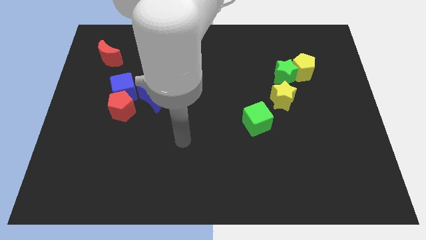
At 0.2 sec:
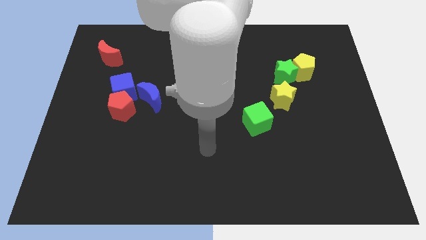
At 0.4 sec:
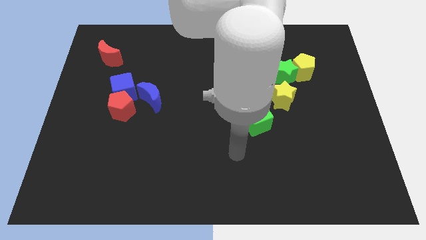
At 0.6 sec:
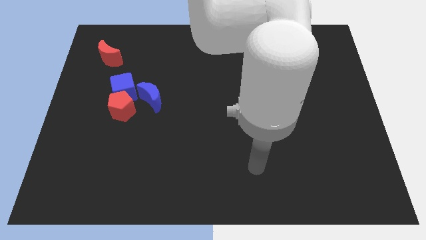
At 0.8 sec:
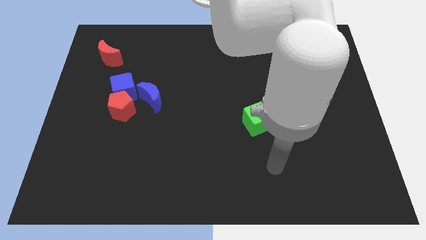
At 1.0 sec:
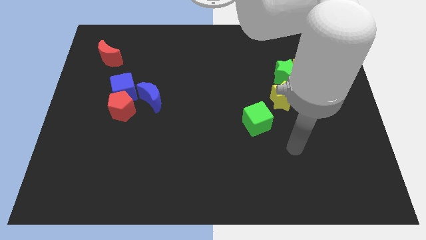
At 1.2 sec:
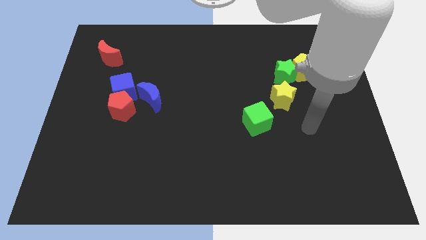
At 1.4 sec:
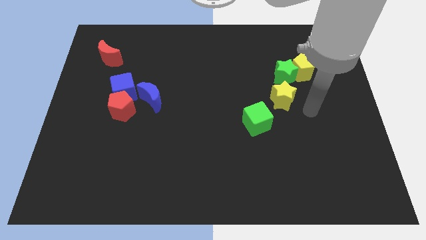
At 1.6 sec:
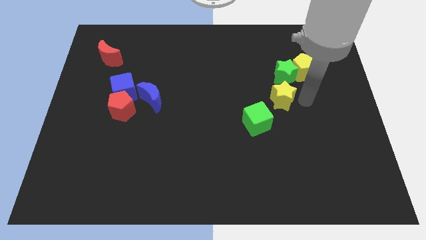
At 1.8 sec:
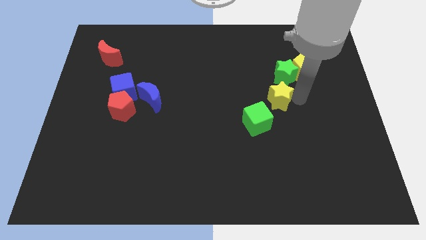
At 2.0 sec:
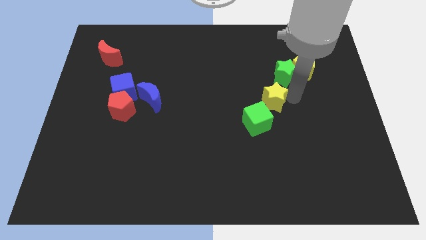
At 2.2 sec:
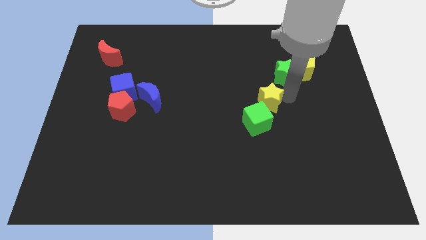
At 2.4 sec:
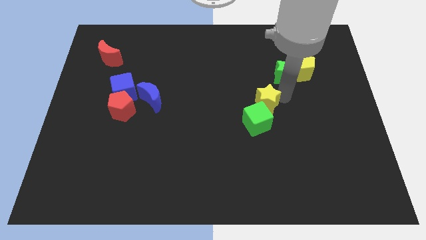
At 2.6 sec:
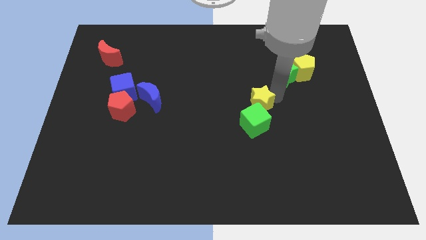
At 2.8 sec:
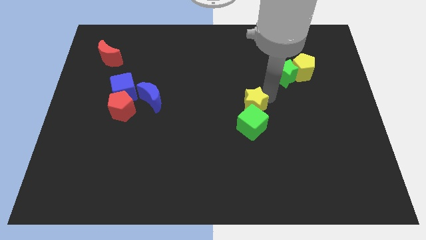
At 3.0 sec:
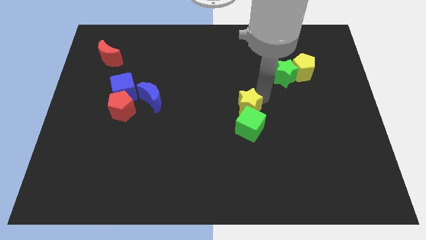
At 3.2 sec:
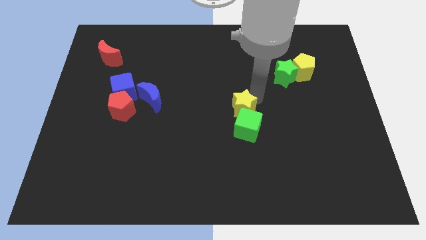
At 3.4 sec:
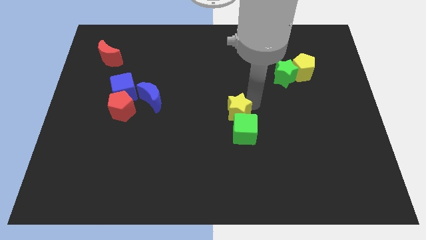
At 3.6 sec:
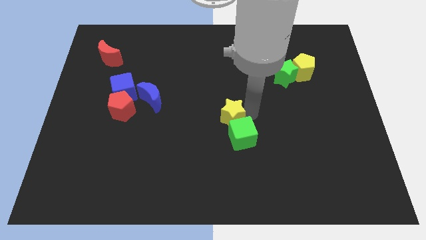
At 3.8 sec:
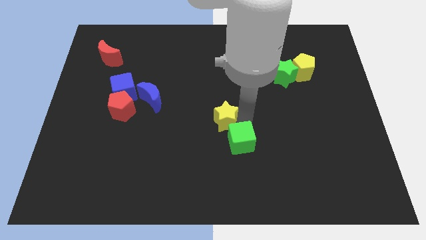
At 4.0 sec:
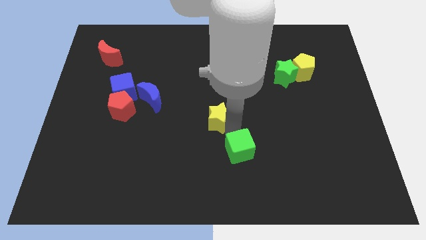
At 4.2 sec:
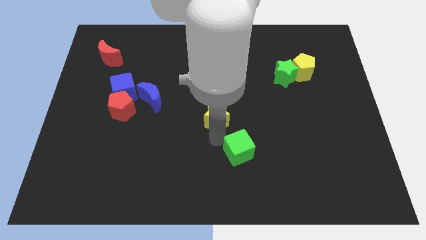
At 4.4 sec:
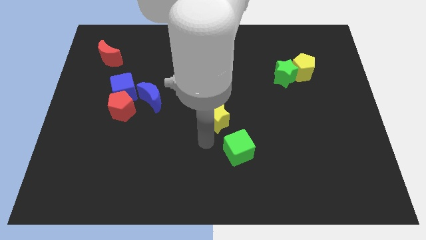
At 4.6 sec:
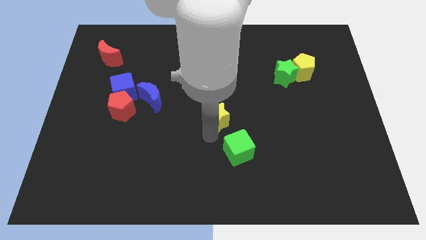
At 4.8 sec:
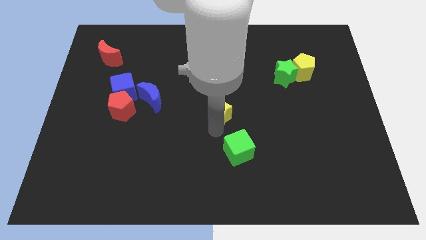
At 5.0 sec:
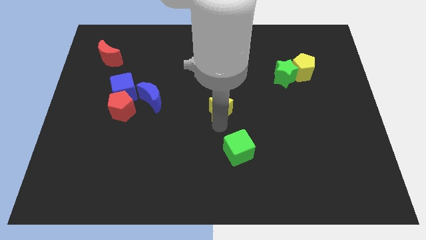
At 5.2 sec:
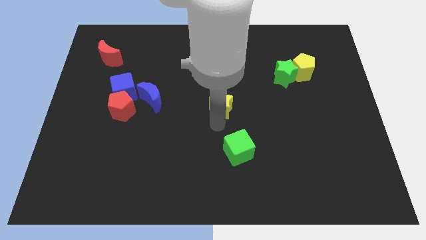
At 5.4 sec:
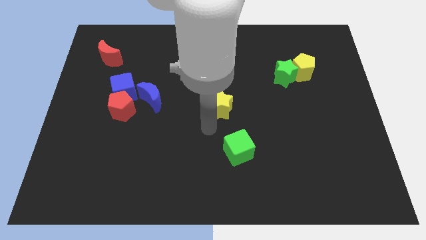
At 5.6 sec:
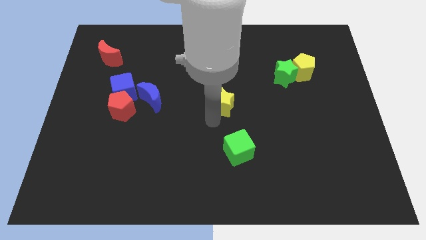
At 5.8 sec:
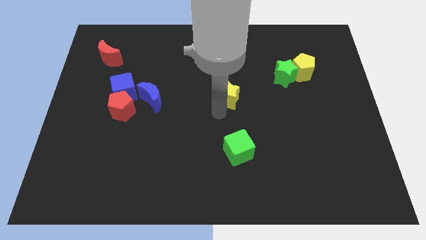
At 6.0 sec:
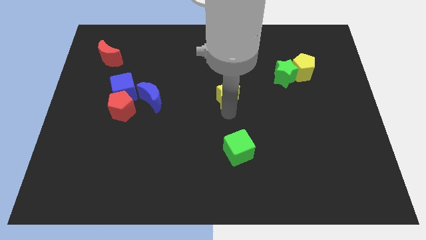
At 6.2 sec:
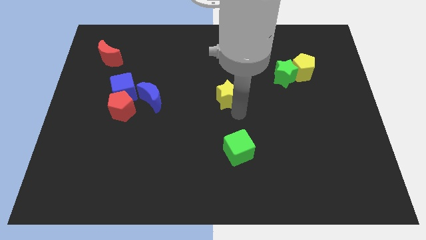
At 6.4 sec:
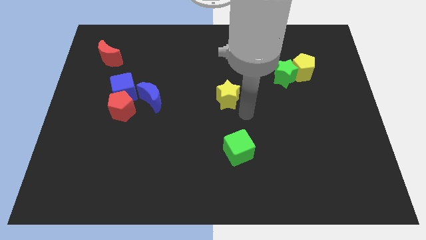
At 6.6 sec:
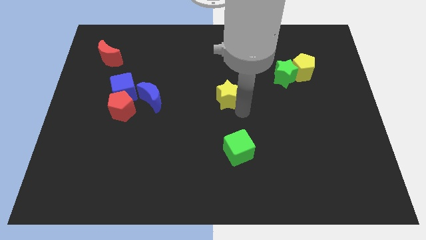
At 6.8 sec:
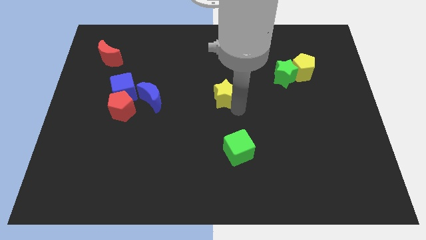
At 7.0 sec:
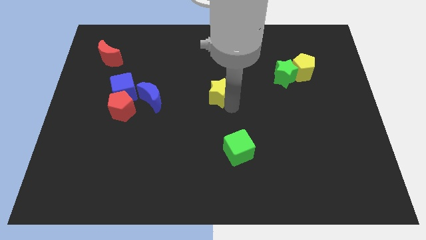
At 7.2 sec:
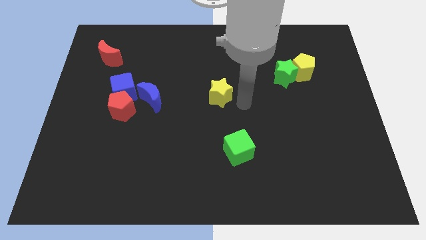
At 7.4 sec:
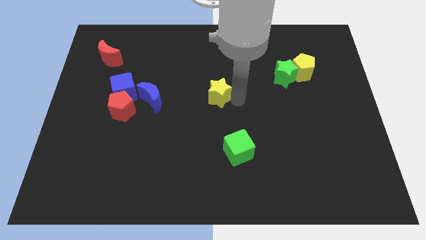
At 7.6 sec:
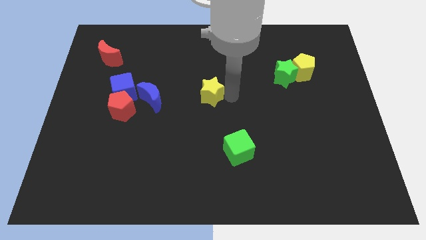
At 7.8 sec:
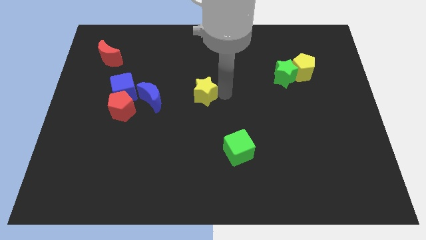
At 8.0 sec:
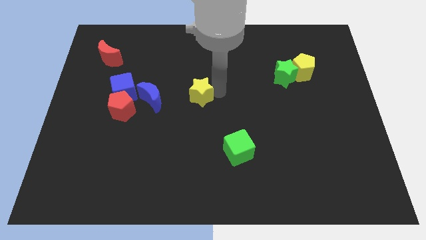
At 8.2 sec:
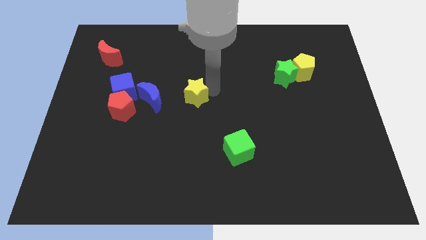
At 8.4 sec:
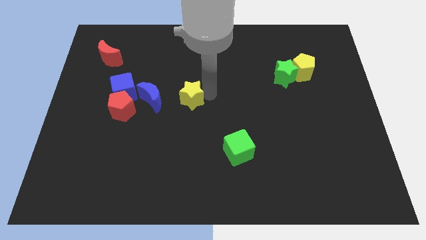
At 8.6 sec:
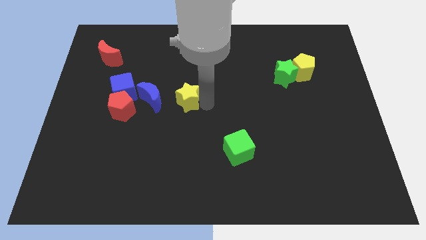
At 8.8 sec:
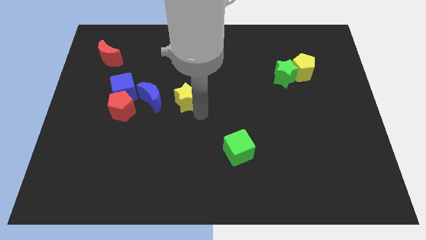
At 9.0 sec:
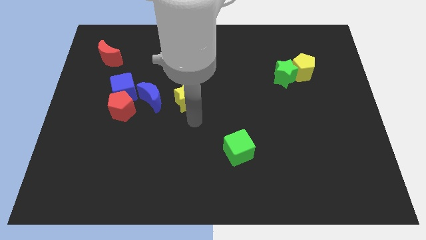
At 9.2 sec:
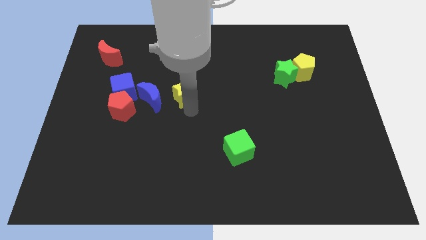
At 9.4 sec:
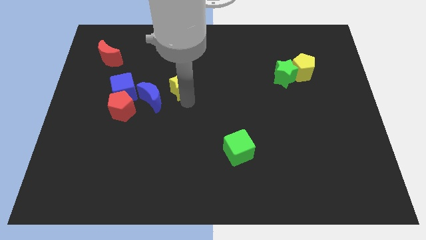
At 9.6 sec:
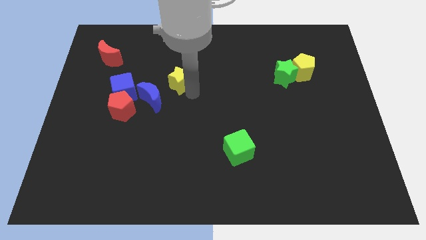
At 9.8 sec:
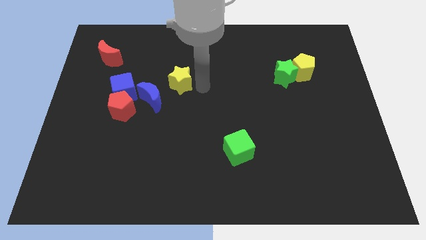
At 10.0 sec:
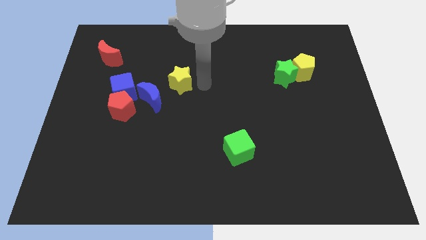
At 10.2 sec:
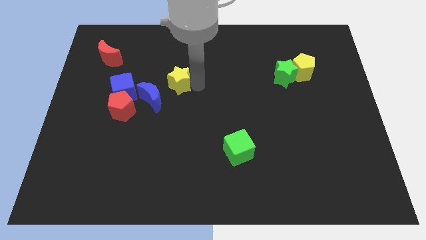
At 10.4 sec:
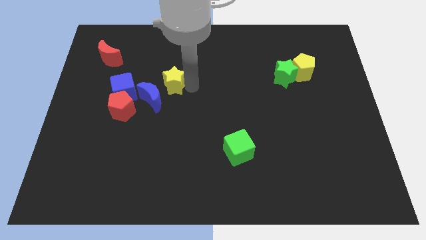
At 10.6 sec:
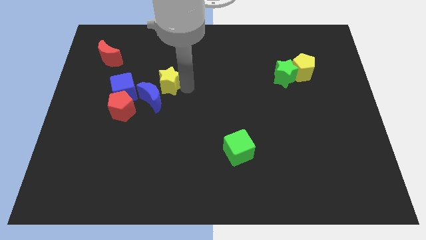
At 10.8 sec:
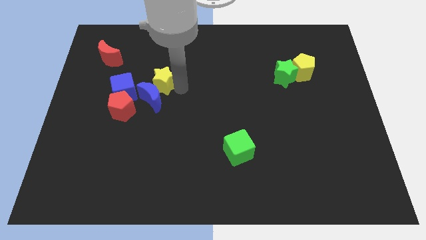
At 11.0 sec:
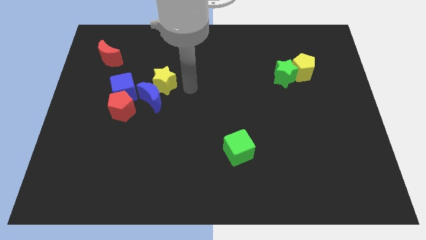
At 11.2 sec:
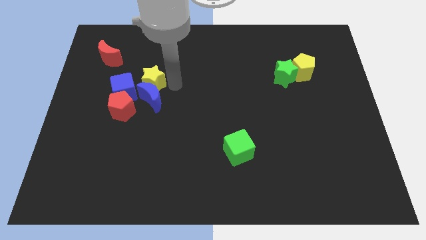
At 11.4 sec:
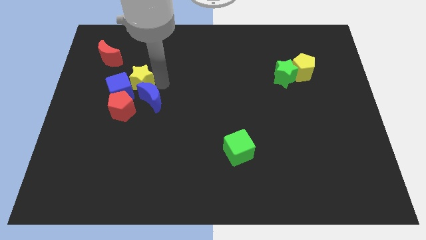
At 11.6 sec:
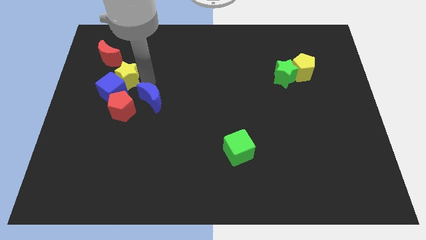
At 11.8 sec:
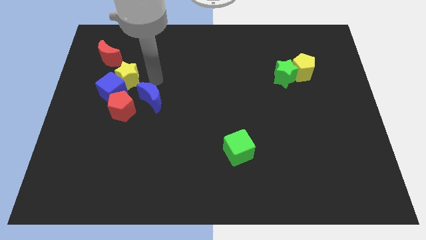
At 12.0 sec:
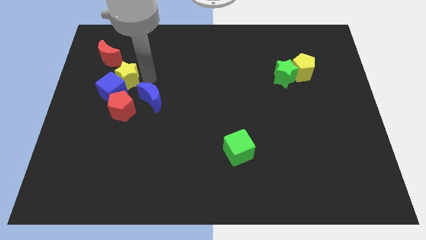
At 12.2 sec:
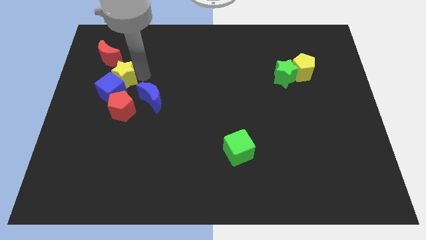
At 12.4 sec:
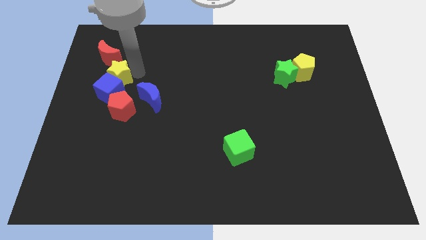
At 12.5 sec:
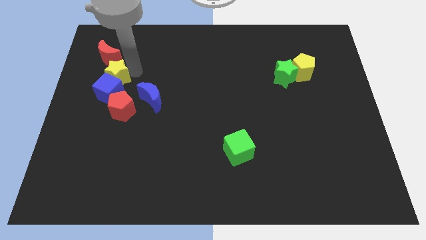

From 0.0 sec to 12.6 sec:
put the yellow star to the top left side of the blue cube

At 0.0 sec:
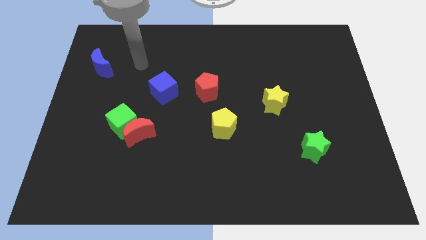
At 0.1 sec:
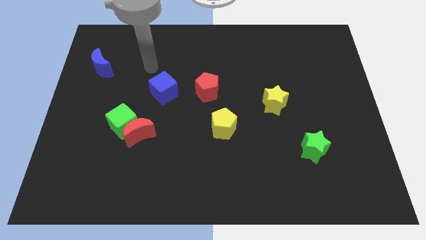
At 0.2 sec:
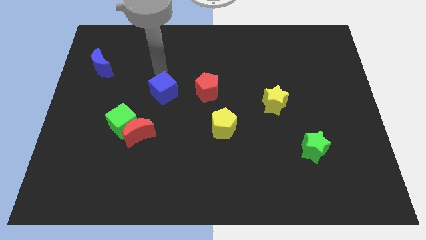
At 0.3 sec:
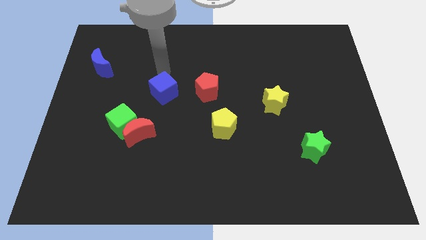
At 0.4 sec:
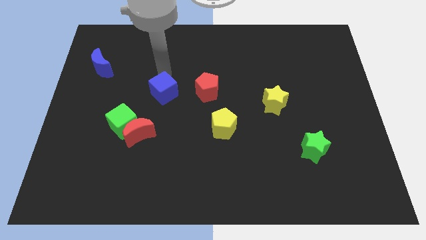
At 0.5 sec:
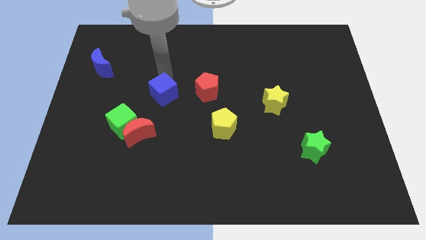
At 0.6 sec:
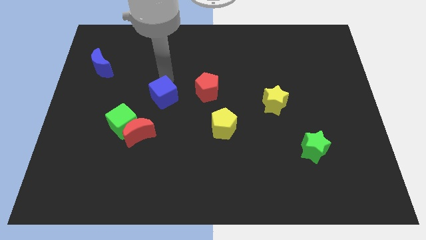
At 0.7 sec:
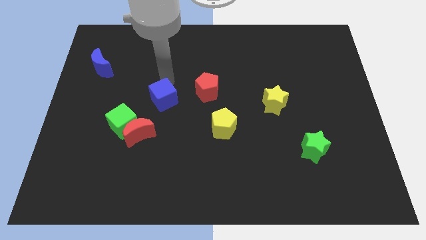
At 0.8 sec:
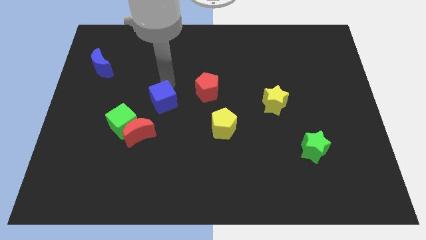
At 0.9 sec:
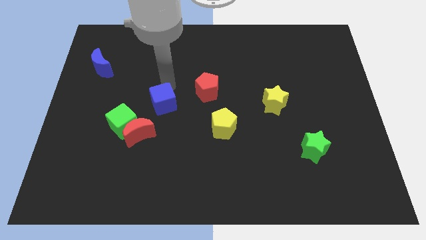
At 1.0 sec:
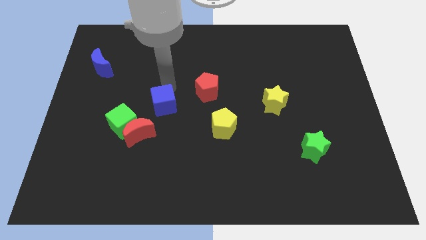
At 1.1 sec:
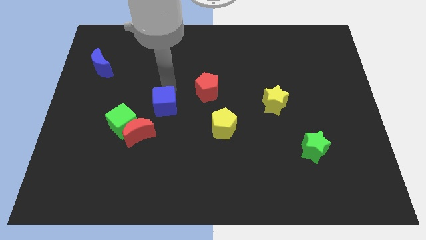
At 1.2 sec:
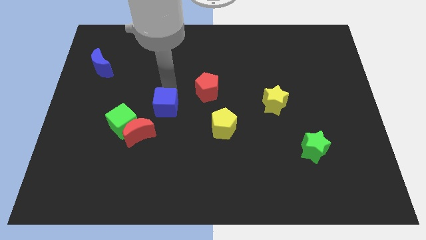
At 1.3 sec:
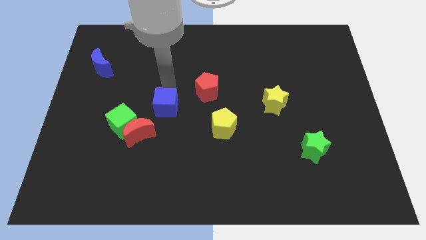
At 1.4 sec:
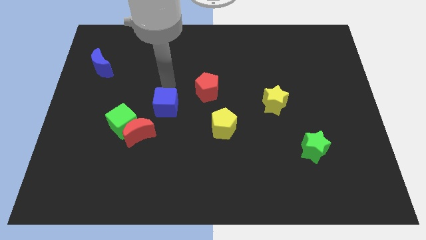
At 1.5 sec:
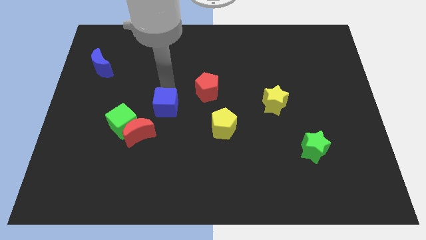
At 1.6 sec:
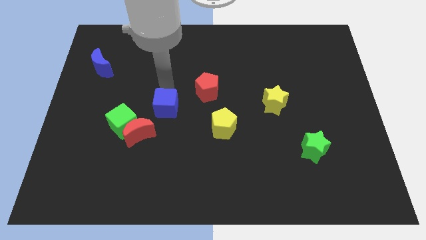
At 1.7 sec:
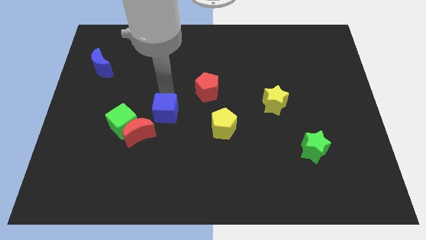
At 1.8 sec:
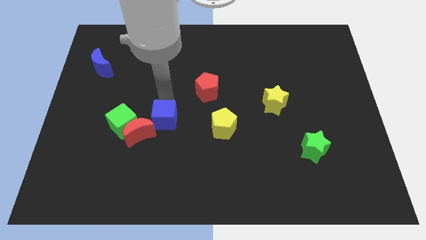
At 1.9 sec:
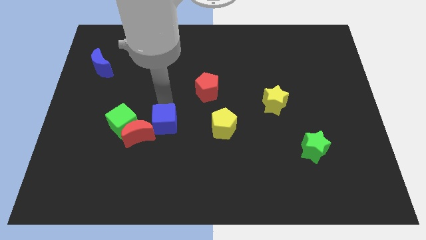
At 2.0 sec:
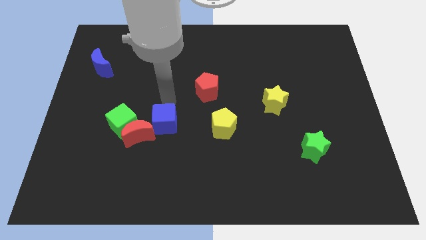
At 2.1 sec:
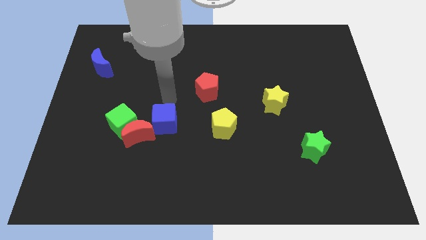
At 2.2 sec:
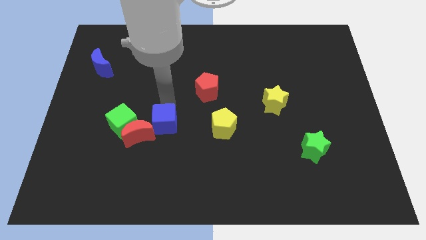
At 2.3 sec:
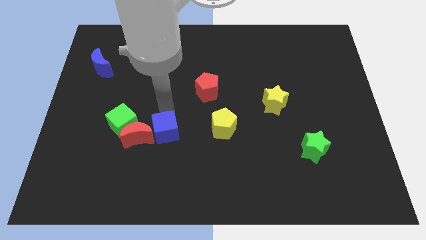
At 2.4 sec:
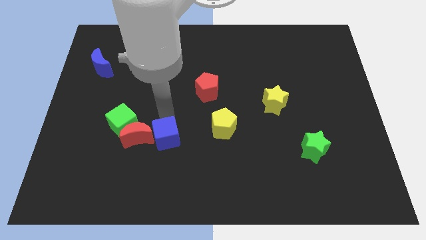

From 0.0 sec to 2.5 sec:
push the blue cube diagonally down and to the right of the red moon
